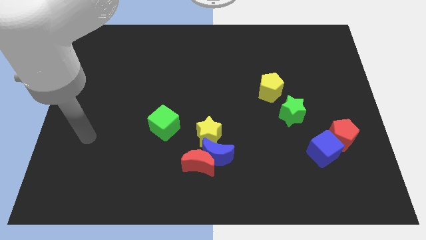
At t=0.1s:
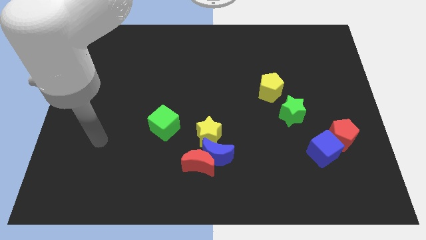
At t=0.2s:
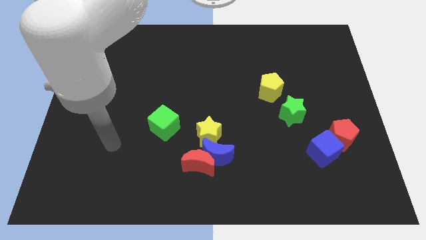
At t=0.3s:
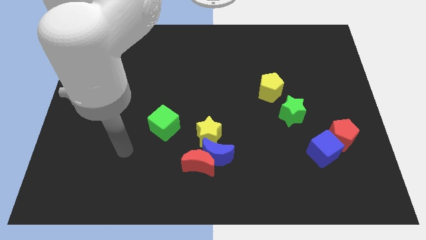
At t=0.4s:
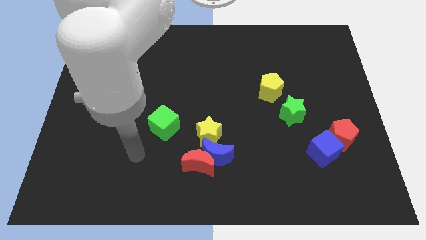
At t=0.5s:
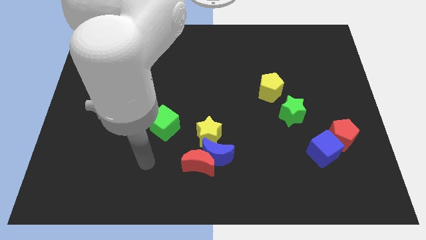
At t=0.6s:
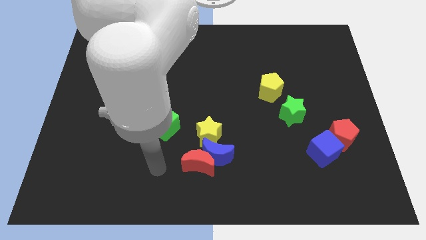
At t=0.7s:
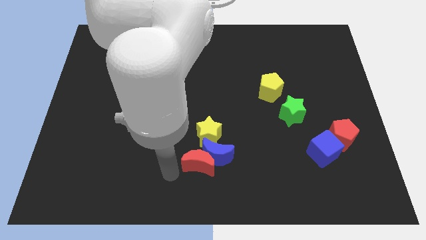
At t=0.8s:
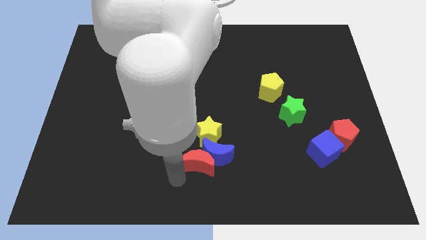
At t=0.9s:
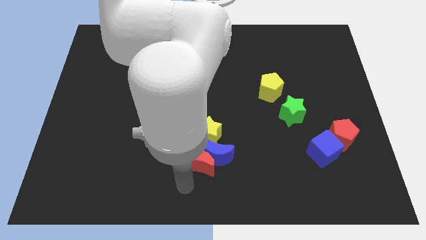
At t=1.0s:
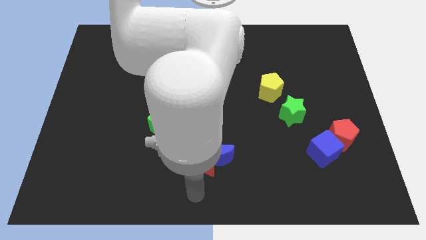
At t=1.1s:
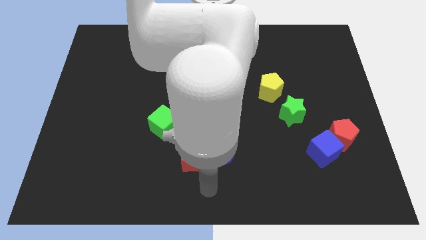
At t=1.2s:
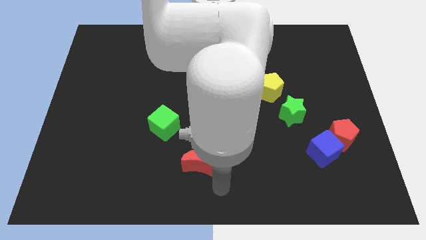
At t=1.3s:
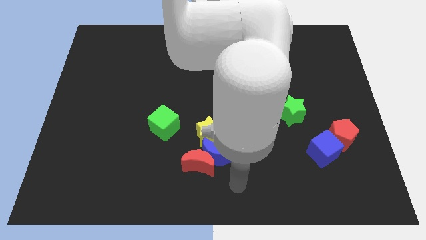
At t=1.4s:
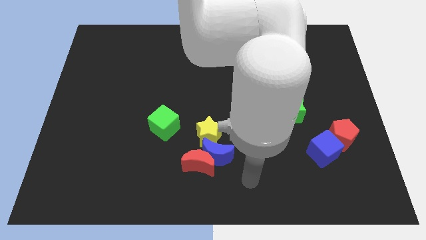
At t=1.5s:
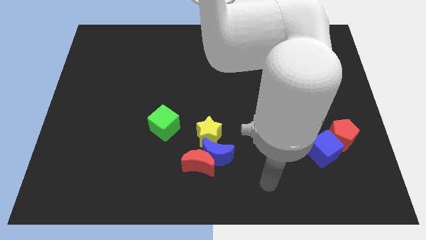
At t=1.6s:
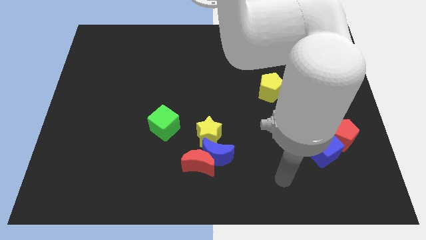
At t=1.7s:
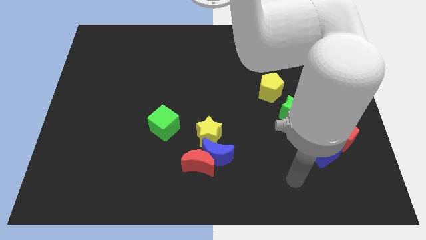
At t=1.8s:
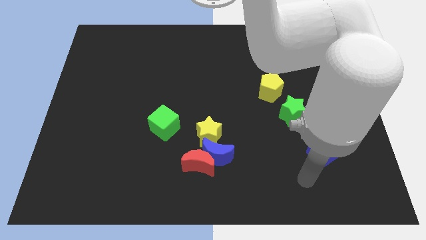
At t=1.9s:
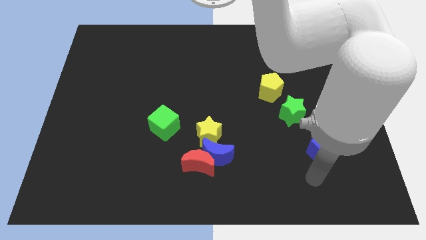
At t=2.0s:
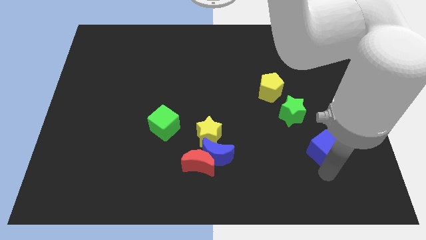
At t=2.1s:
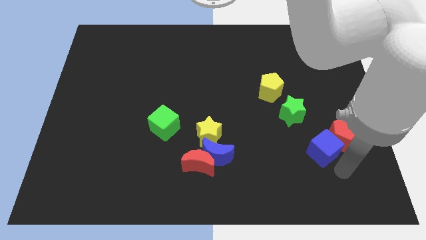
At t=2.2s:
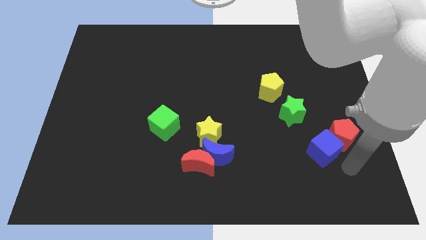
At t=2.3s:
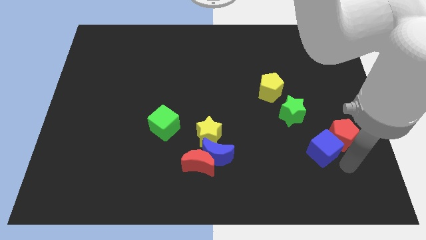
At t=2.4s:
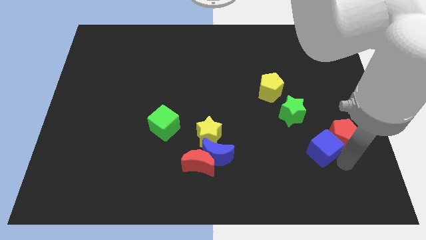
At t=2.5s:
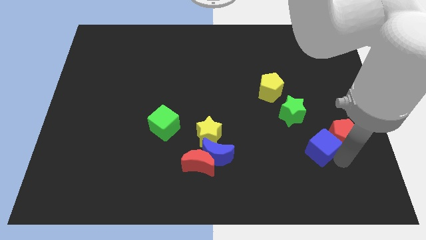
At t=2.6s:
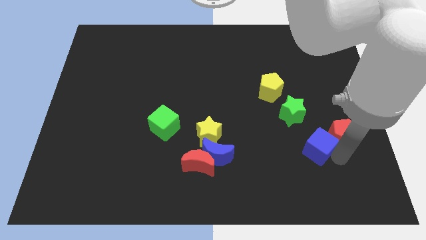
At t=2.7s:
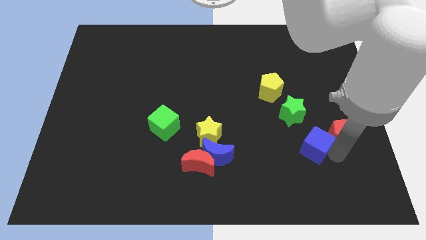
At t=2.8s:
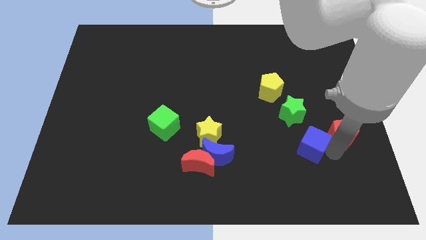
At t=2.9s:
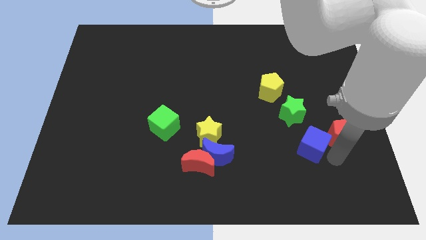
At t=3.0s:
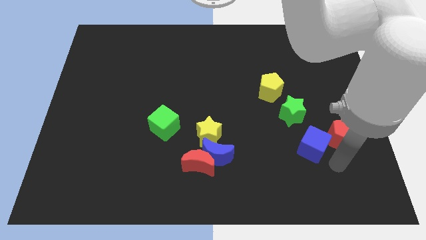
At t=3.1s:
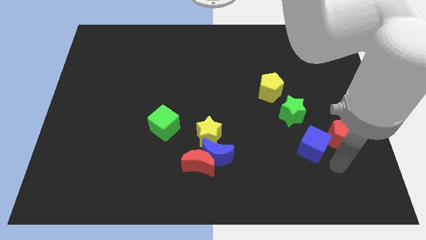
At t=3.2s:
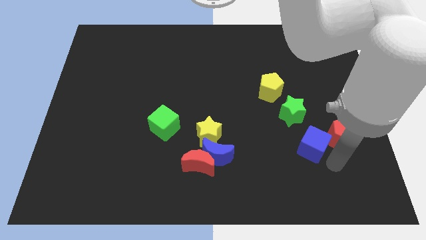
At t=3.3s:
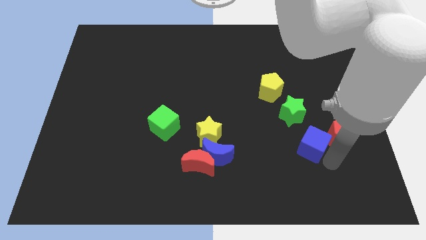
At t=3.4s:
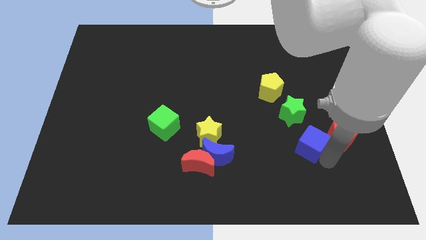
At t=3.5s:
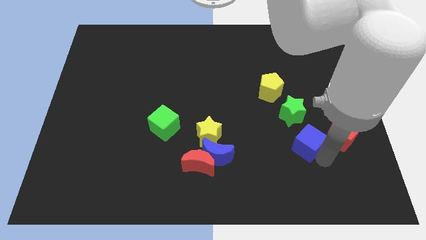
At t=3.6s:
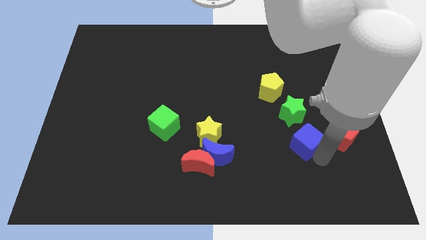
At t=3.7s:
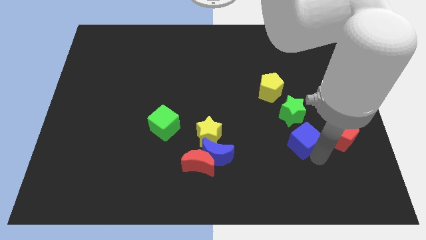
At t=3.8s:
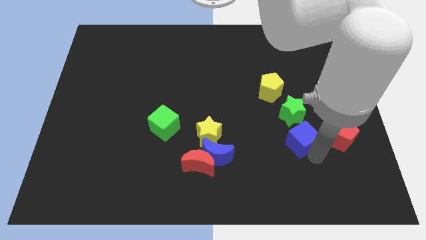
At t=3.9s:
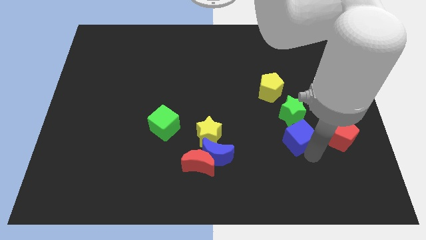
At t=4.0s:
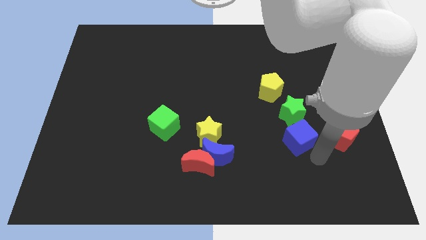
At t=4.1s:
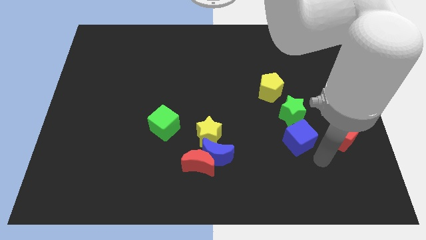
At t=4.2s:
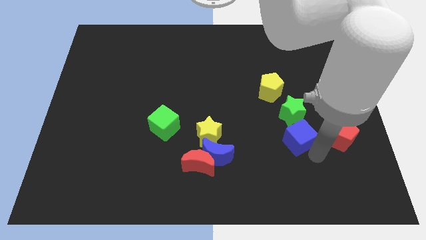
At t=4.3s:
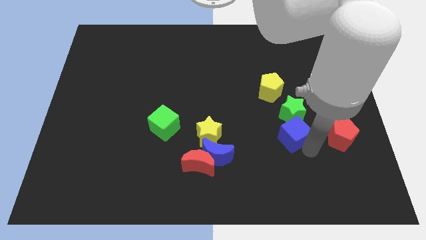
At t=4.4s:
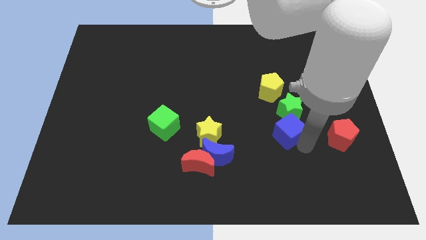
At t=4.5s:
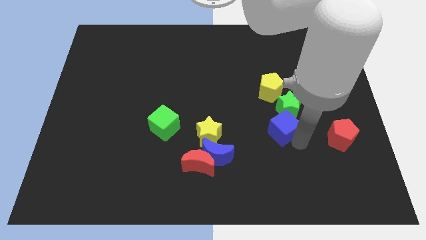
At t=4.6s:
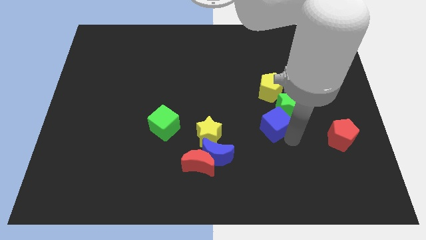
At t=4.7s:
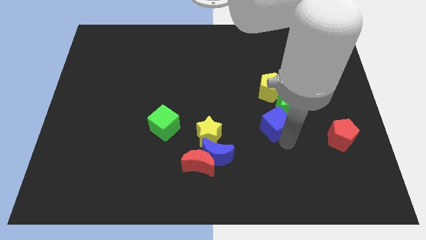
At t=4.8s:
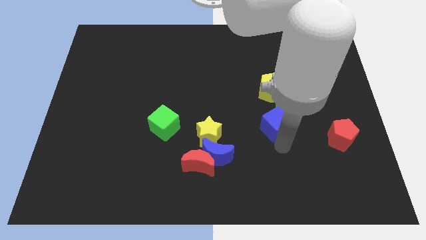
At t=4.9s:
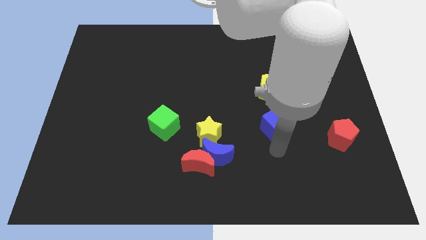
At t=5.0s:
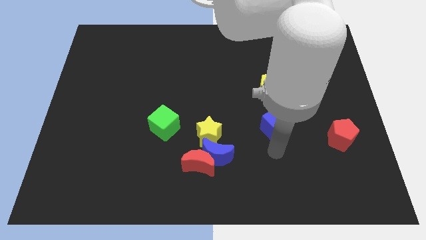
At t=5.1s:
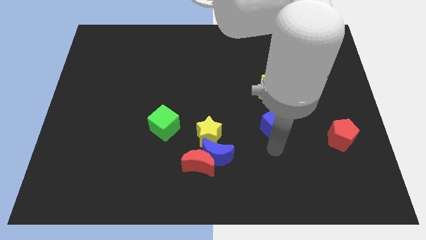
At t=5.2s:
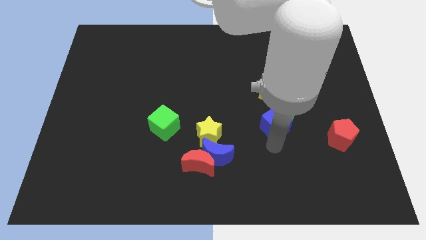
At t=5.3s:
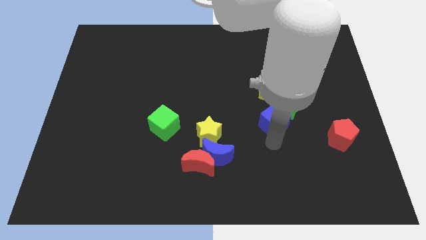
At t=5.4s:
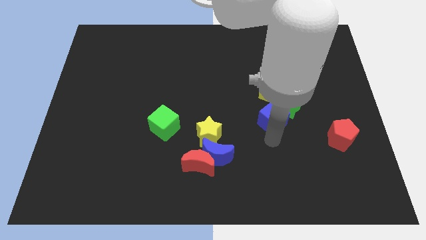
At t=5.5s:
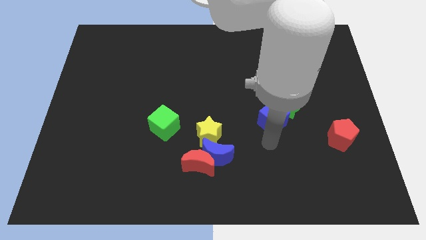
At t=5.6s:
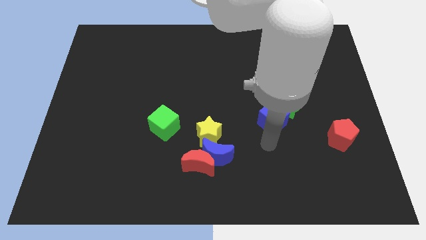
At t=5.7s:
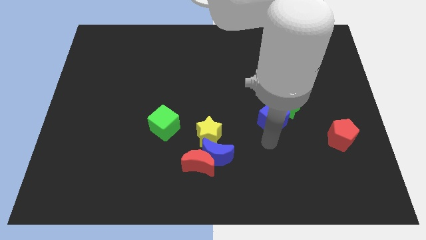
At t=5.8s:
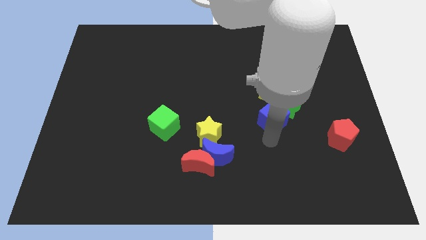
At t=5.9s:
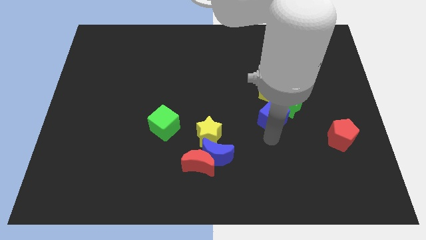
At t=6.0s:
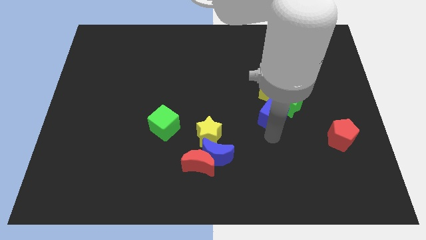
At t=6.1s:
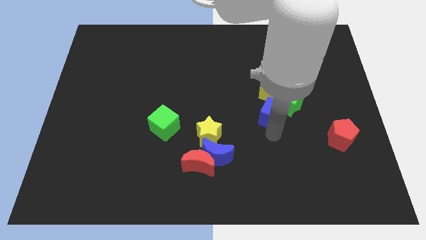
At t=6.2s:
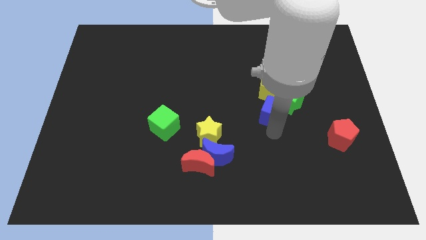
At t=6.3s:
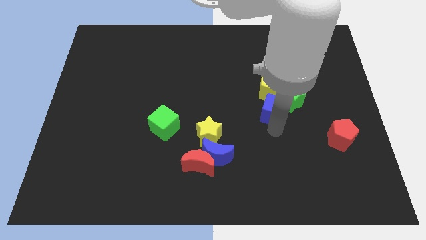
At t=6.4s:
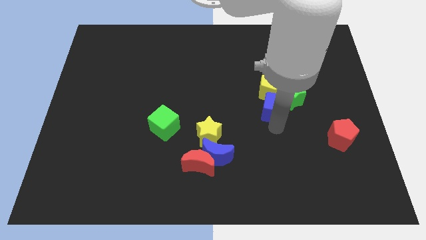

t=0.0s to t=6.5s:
put the blue cube close to the yellow pentagon

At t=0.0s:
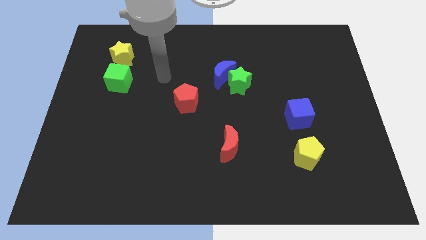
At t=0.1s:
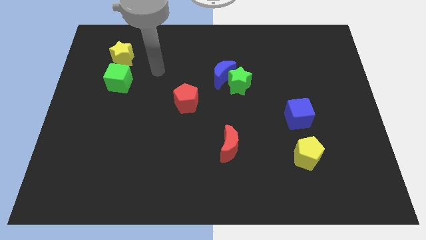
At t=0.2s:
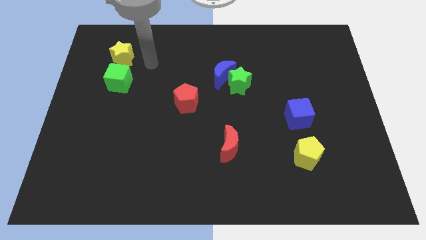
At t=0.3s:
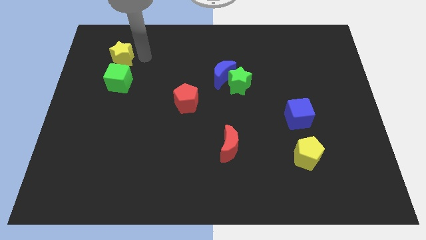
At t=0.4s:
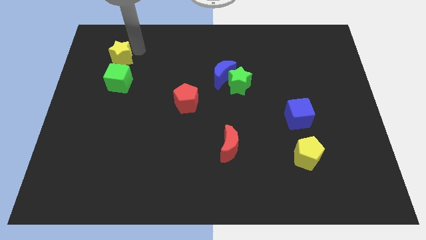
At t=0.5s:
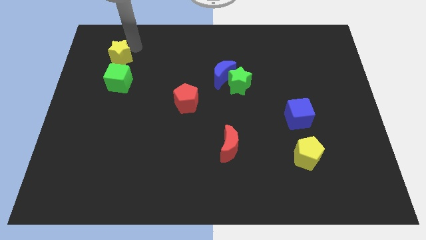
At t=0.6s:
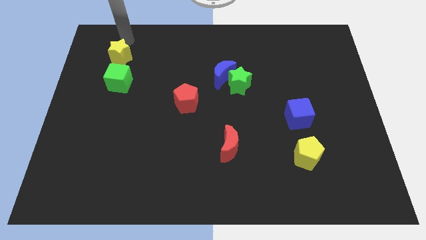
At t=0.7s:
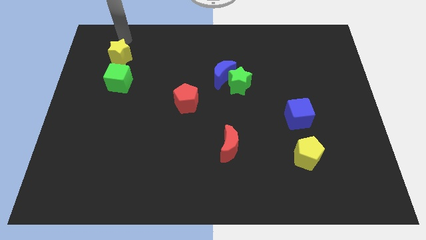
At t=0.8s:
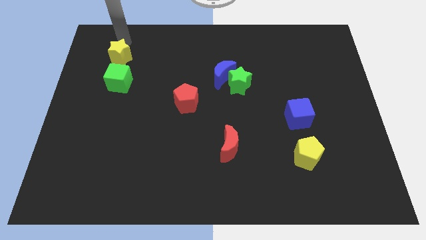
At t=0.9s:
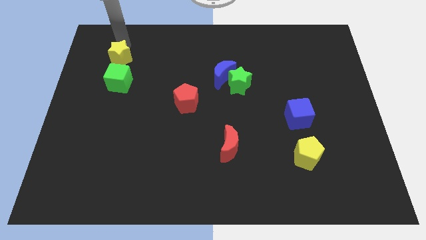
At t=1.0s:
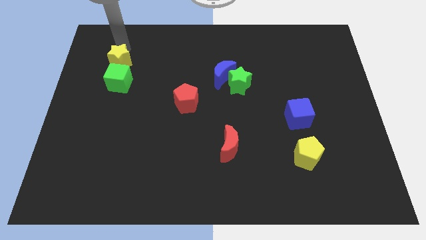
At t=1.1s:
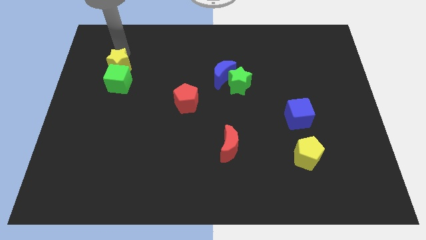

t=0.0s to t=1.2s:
put the yellow star towards the green cube

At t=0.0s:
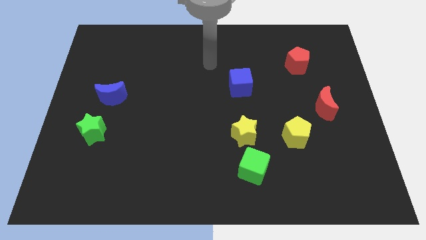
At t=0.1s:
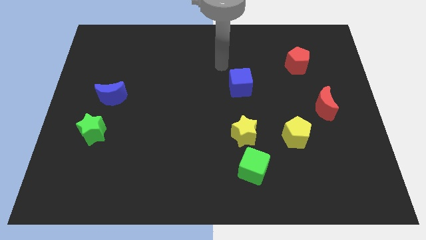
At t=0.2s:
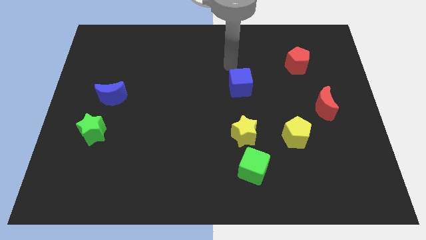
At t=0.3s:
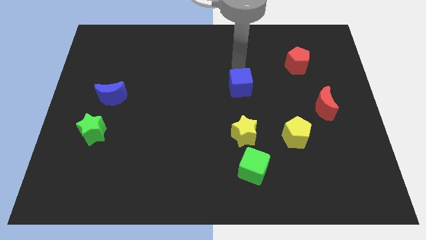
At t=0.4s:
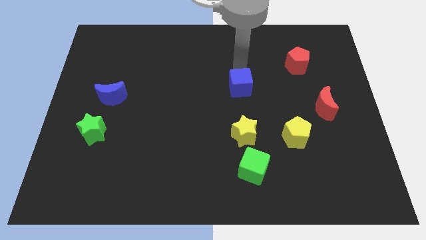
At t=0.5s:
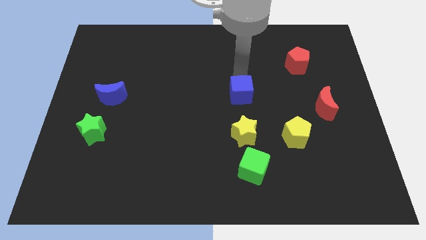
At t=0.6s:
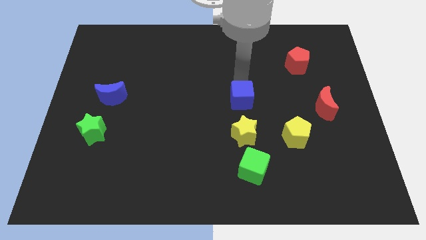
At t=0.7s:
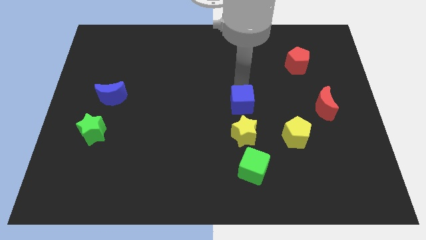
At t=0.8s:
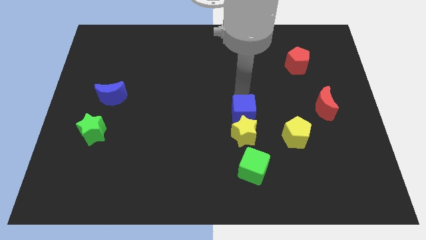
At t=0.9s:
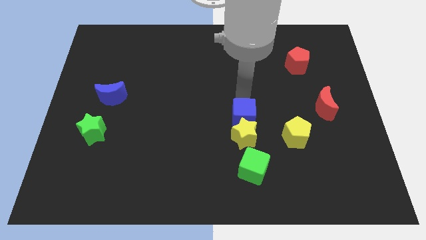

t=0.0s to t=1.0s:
move the blue cube close to the yellow star
